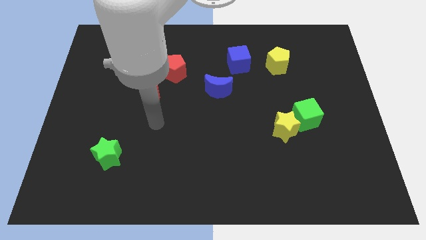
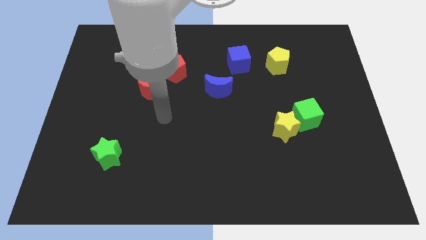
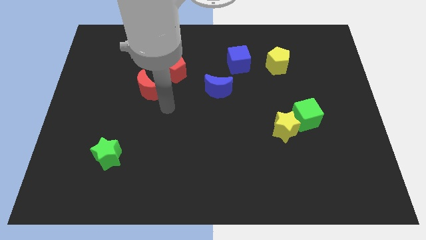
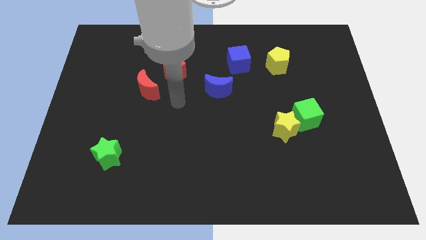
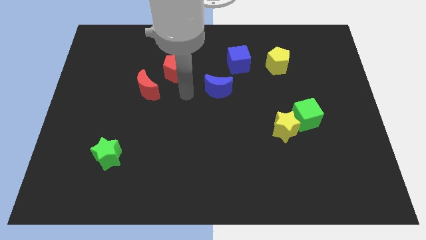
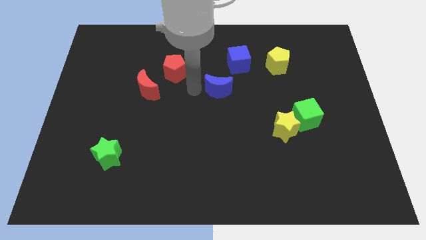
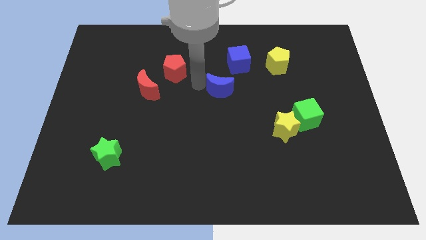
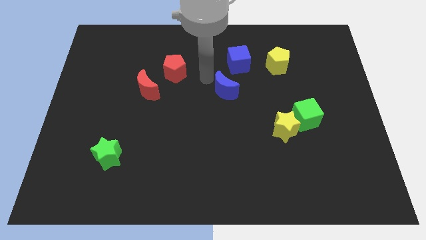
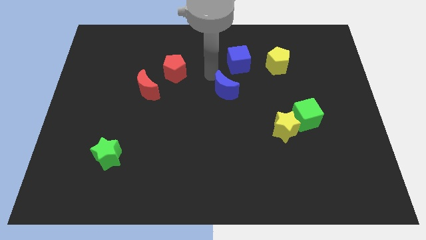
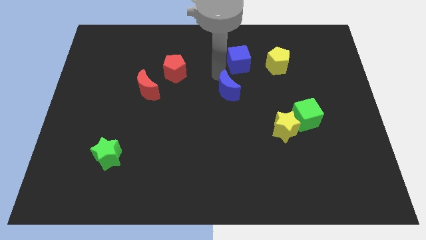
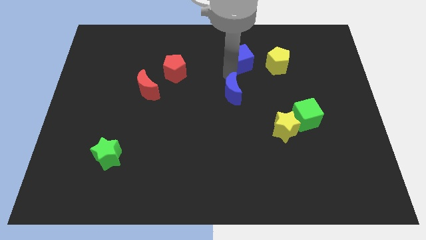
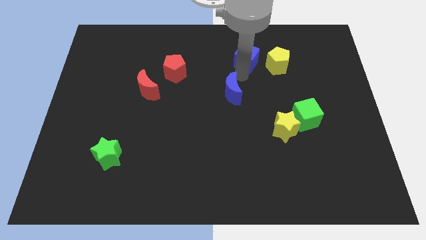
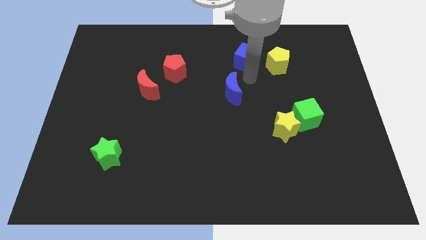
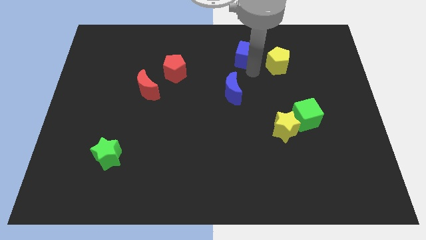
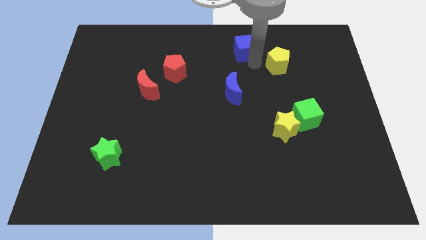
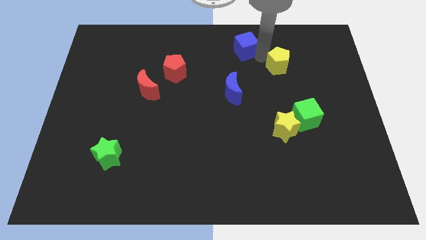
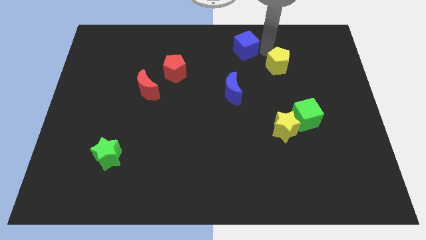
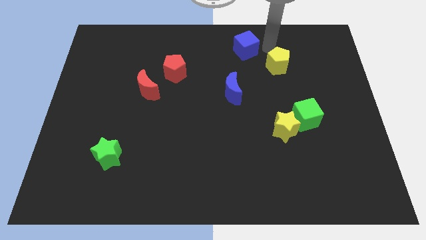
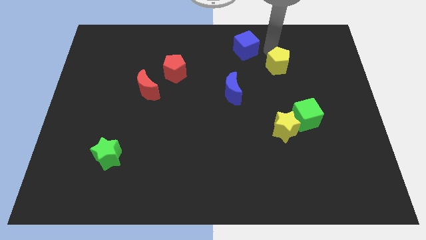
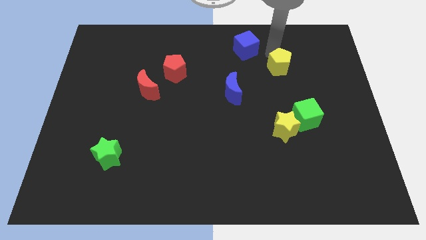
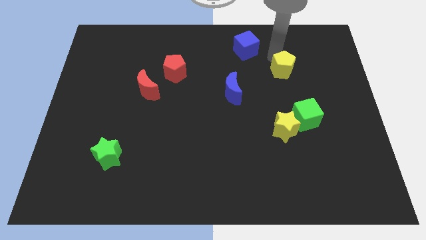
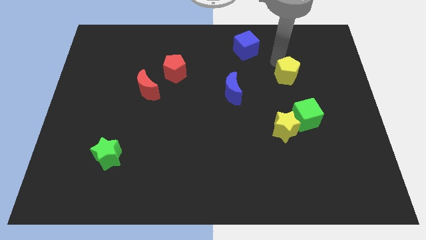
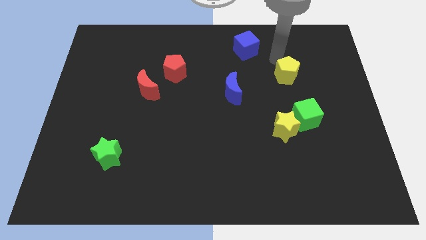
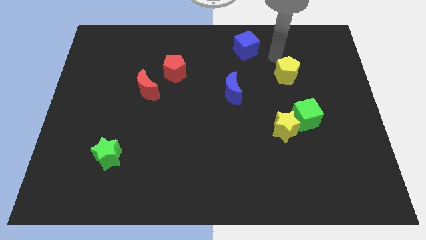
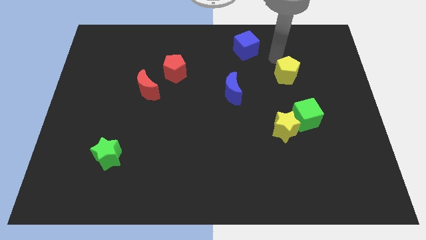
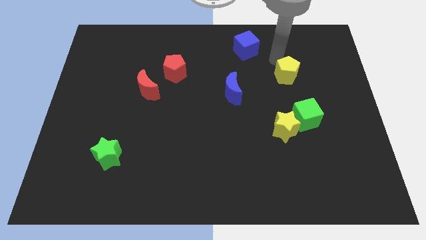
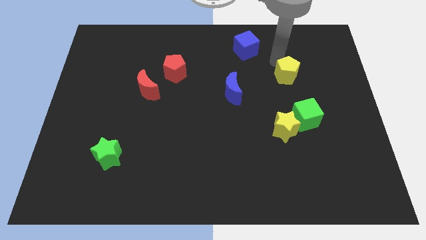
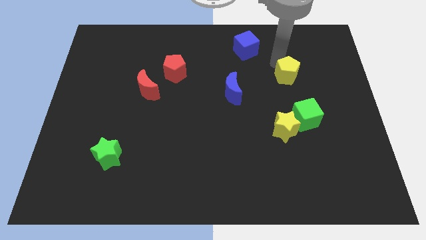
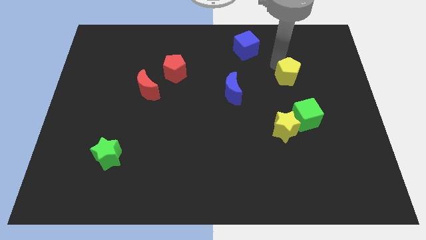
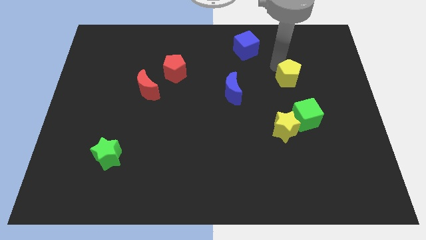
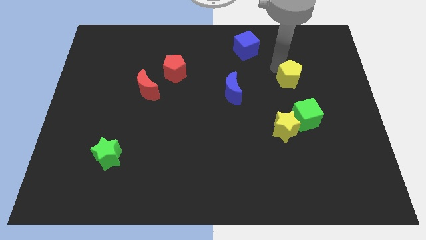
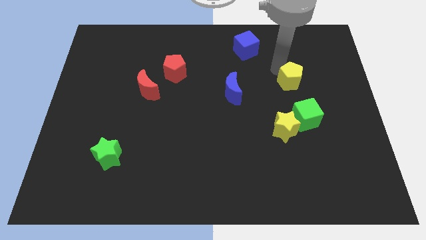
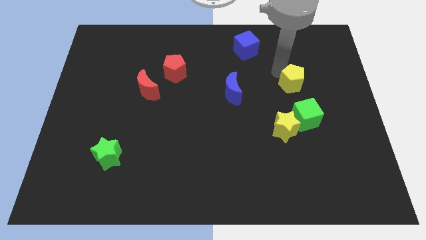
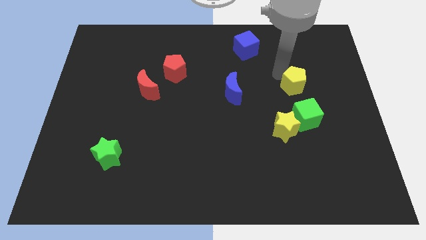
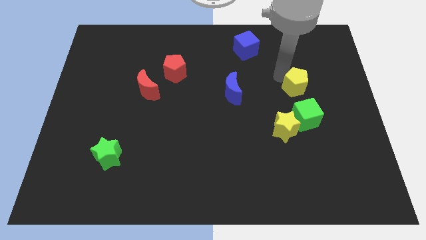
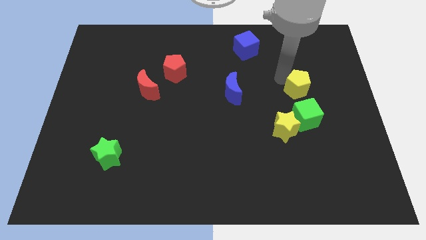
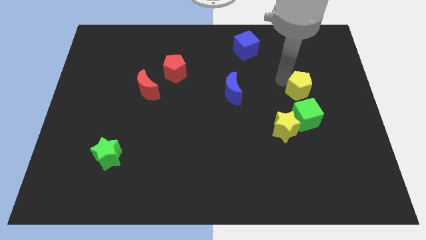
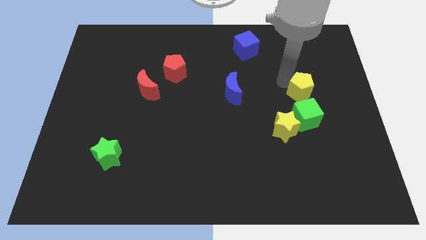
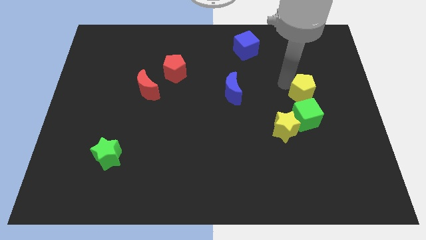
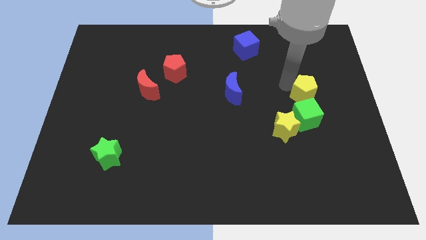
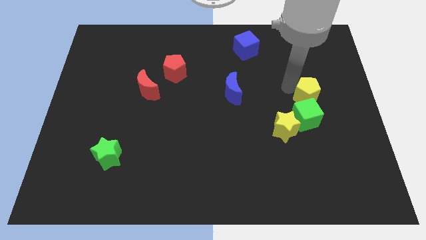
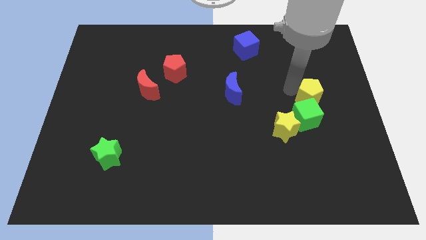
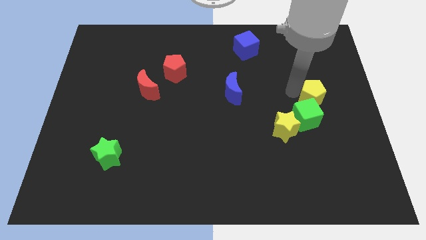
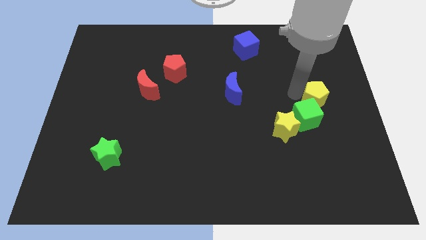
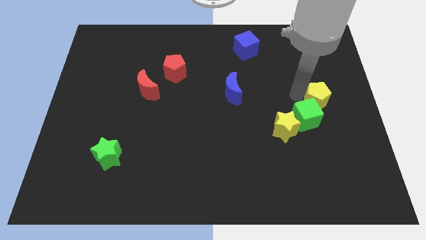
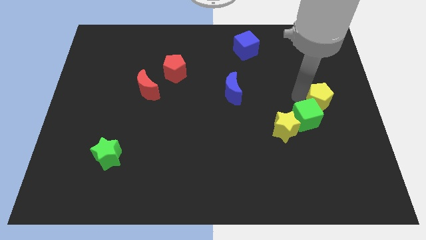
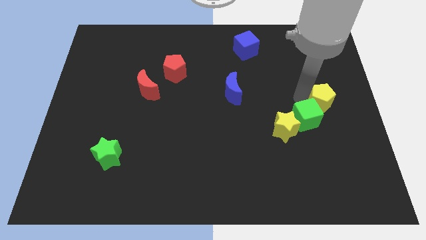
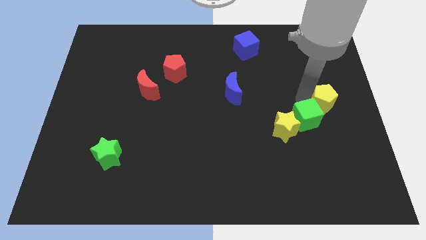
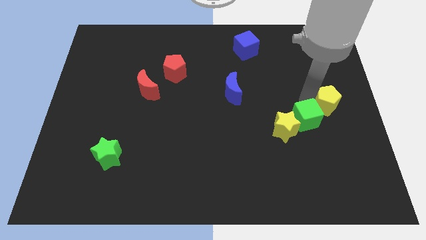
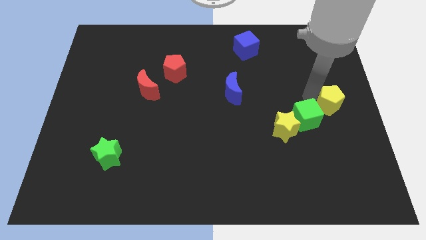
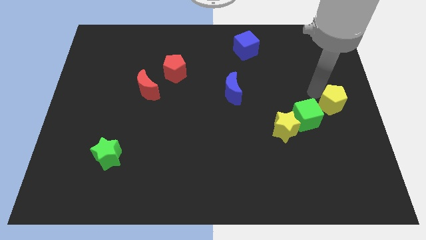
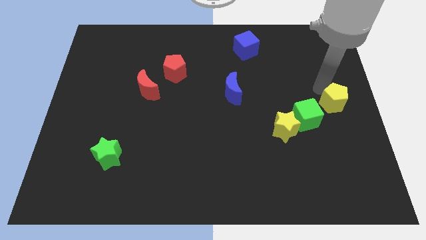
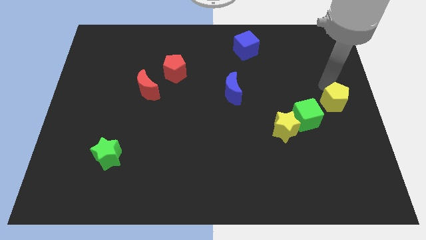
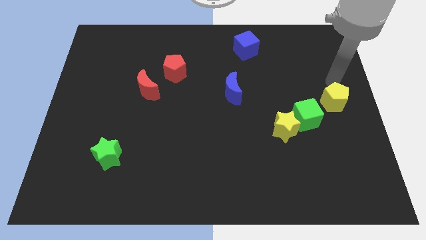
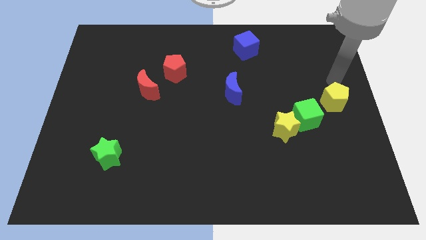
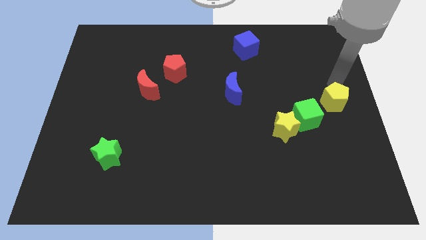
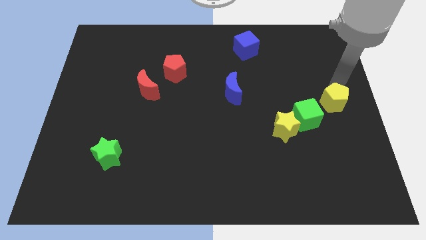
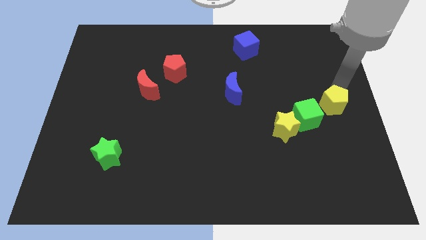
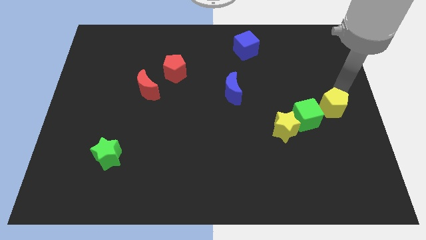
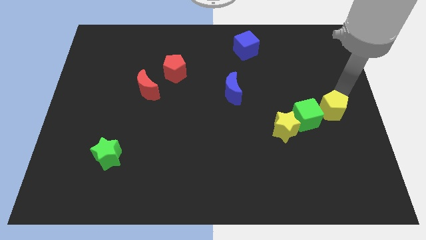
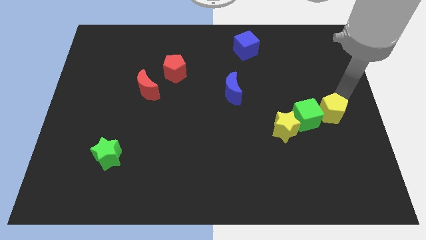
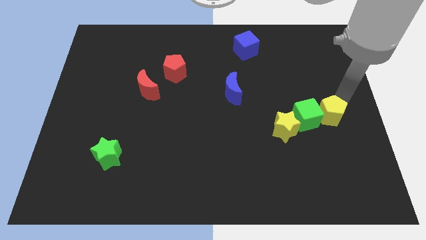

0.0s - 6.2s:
put the yellow pentagon diagonally down and to the right of the green cube

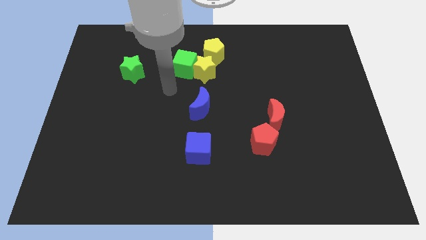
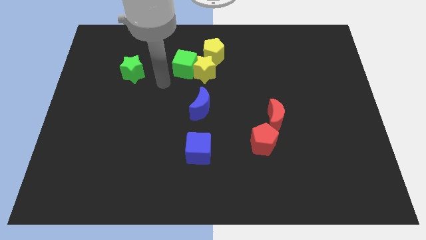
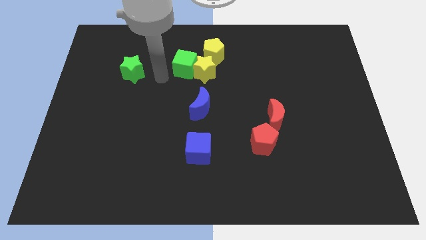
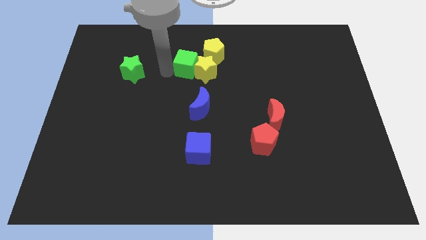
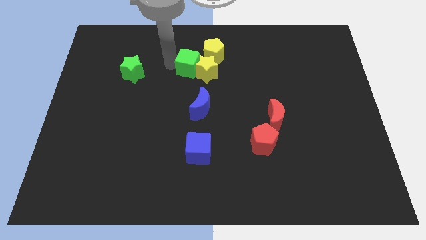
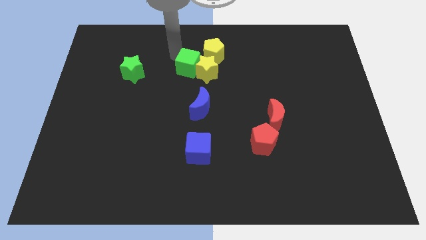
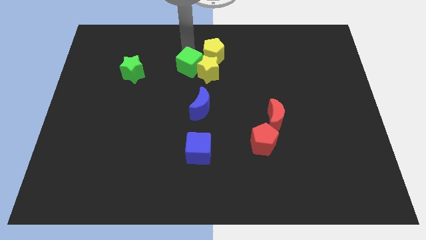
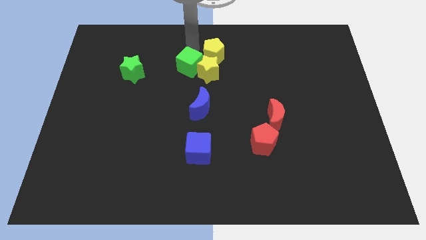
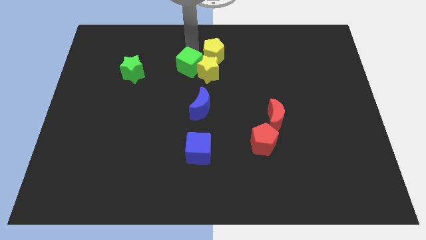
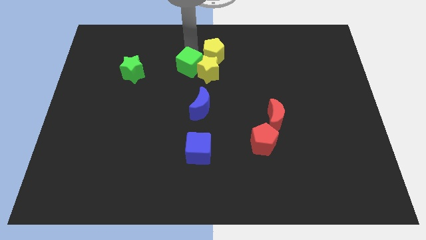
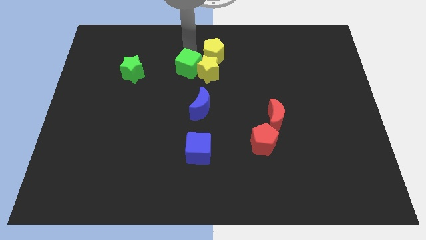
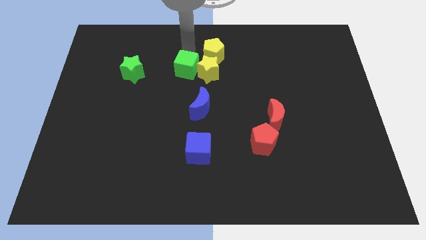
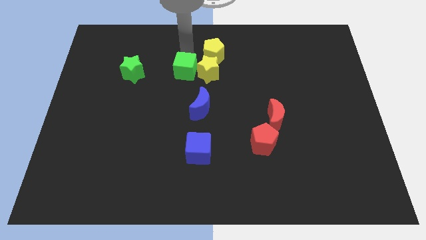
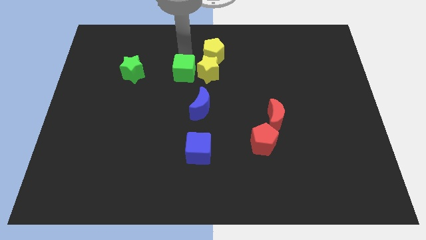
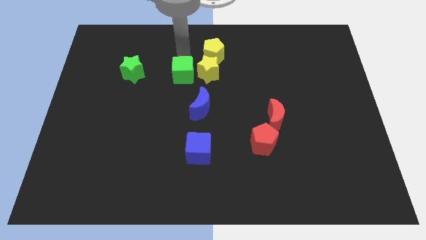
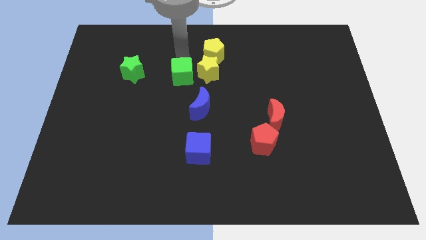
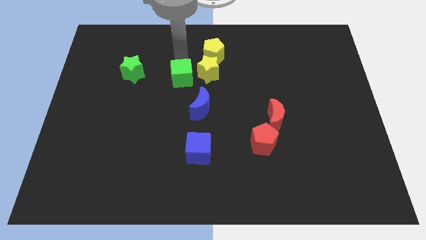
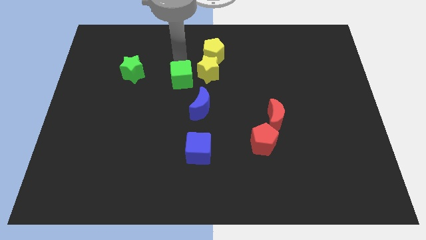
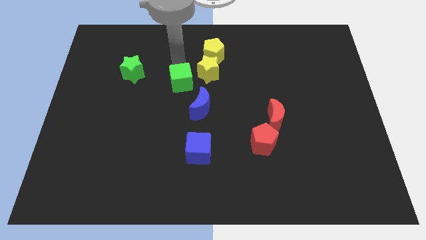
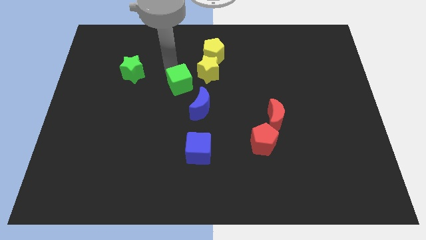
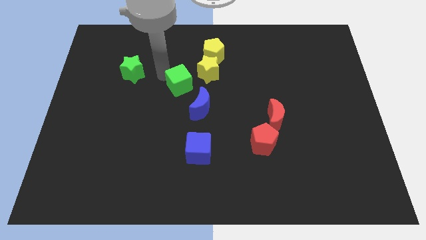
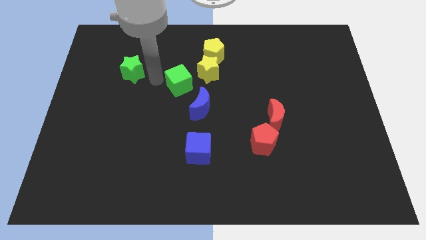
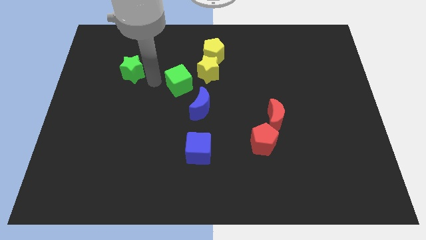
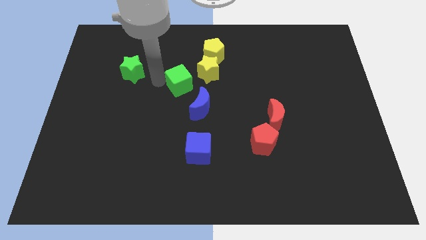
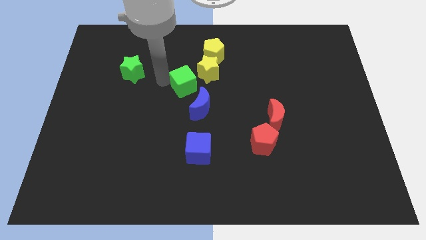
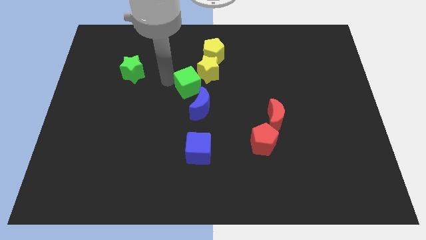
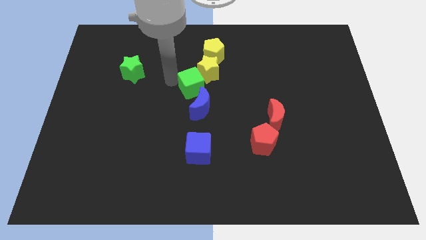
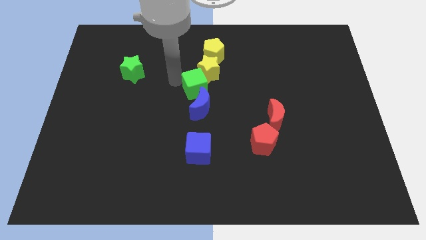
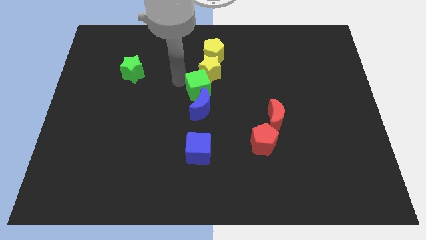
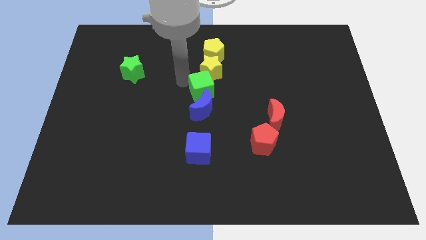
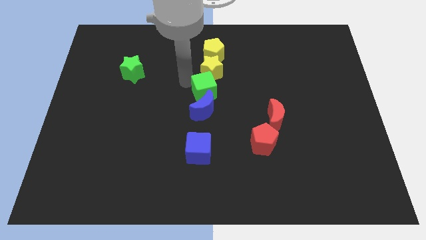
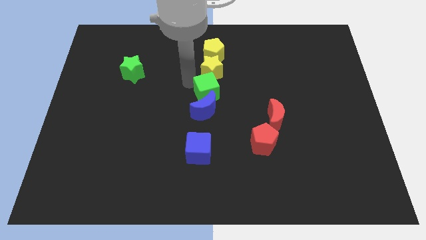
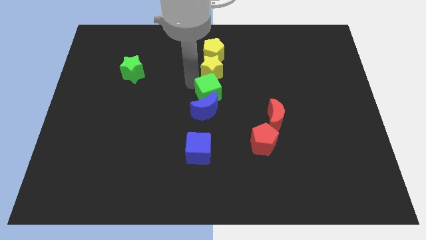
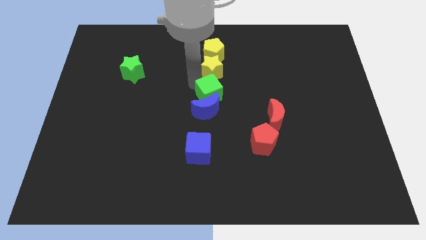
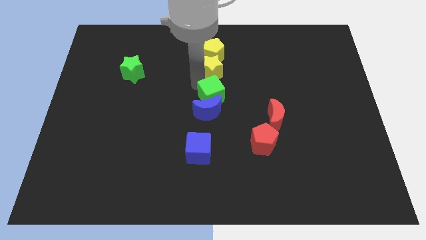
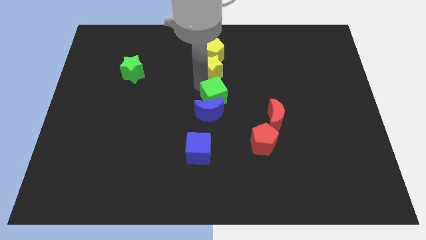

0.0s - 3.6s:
push the green cube diagonally down and to the right of the yellow star
